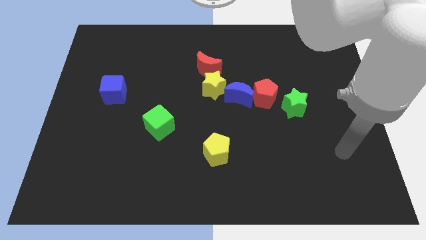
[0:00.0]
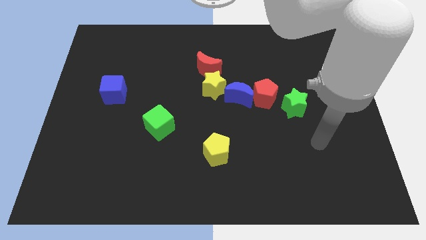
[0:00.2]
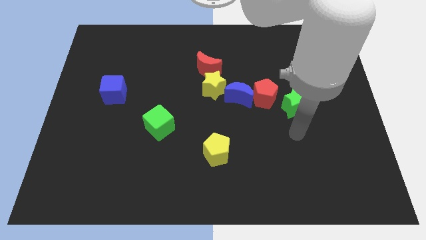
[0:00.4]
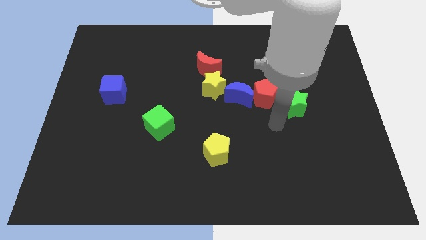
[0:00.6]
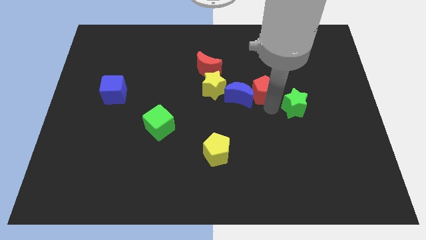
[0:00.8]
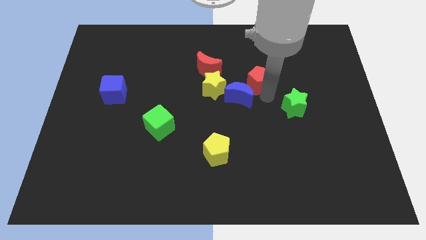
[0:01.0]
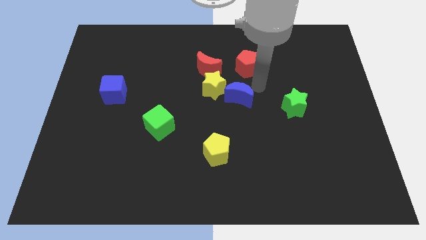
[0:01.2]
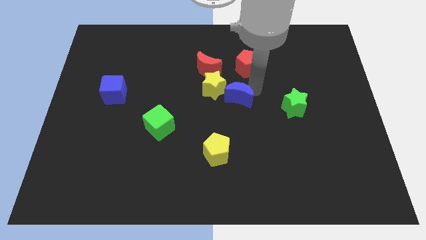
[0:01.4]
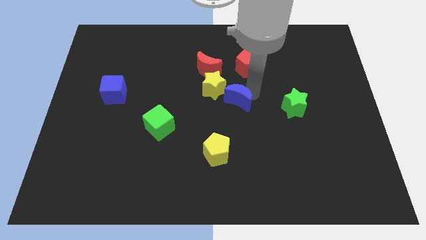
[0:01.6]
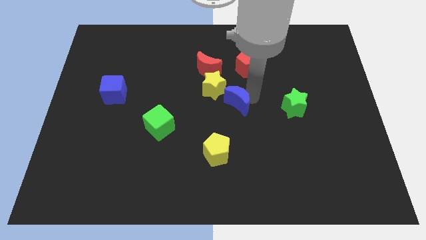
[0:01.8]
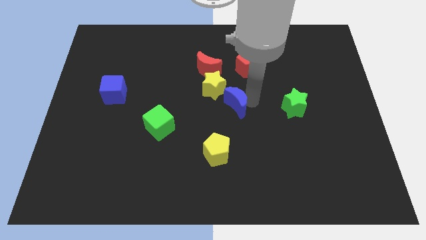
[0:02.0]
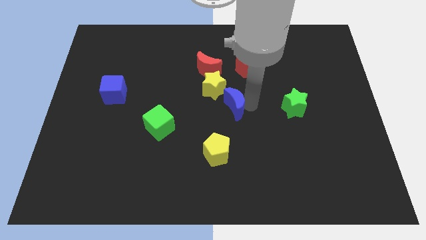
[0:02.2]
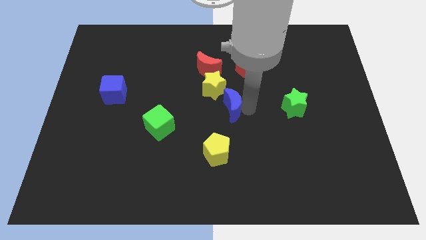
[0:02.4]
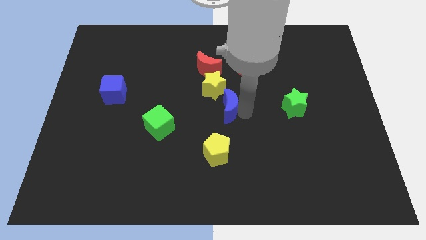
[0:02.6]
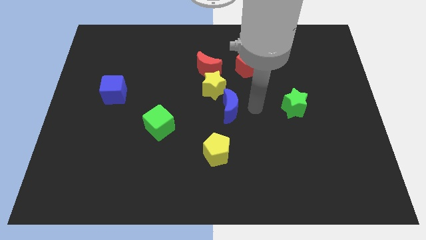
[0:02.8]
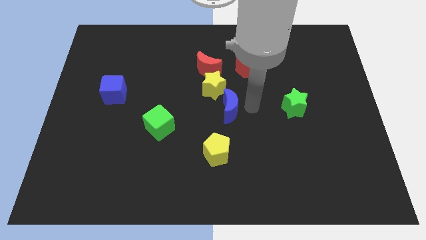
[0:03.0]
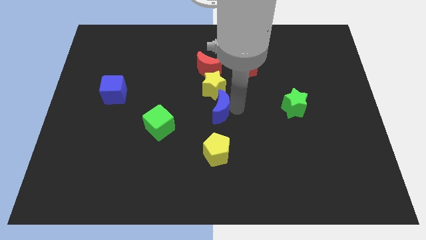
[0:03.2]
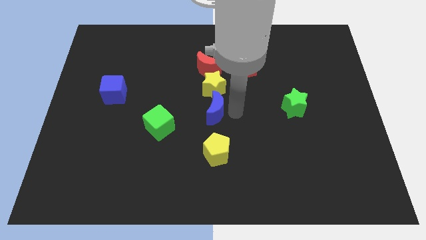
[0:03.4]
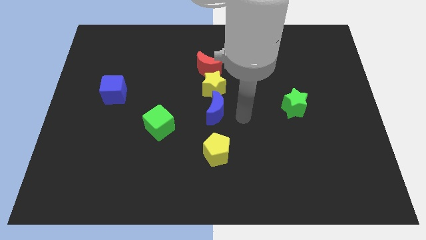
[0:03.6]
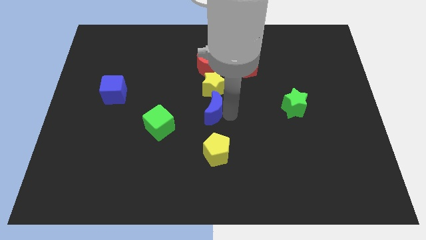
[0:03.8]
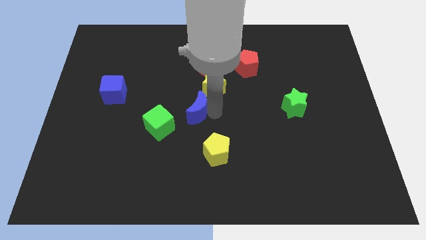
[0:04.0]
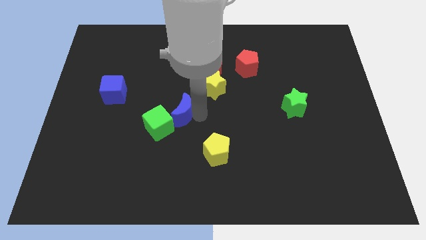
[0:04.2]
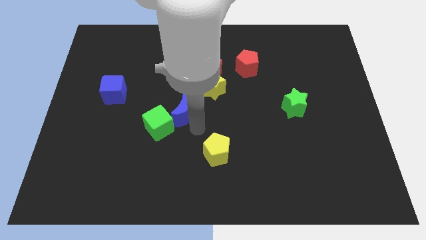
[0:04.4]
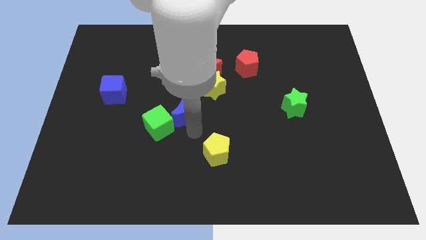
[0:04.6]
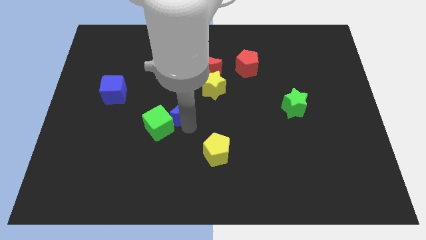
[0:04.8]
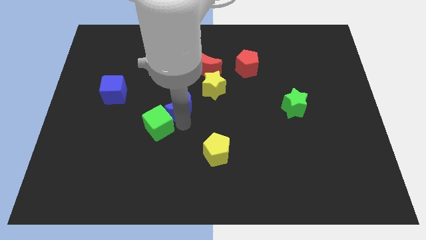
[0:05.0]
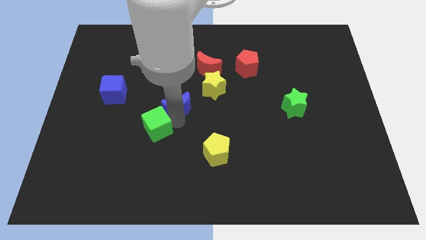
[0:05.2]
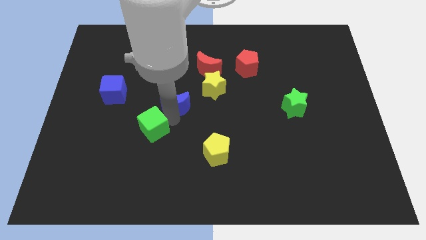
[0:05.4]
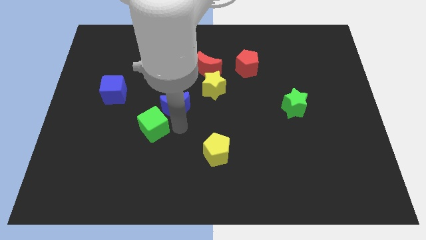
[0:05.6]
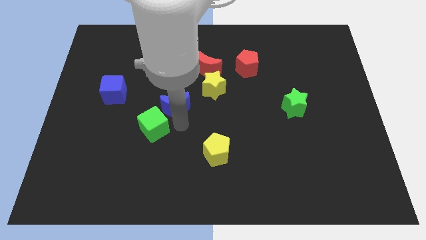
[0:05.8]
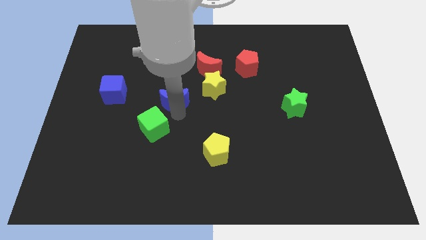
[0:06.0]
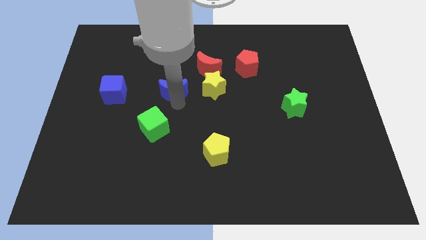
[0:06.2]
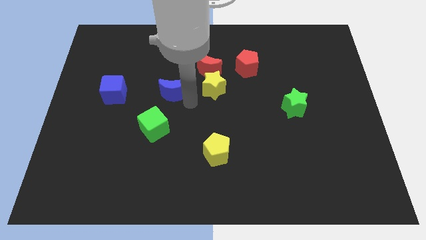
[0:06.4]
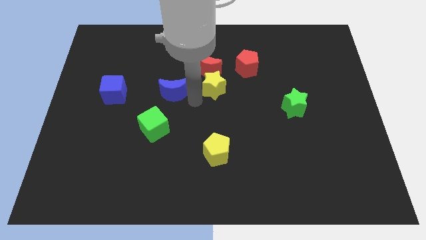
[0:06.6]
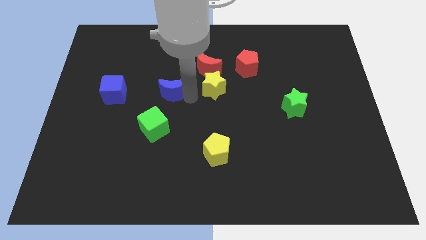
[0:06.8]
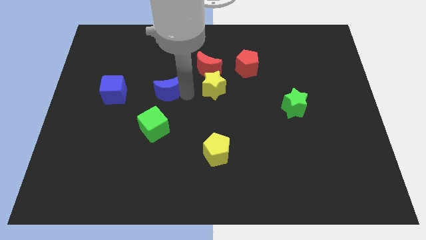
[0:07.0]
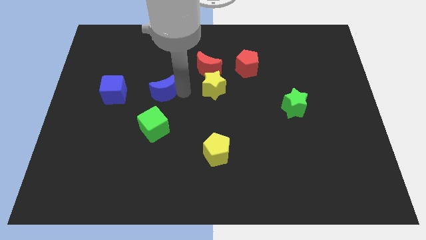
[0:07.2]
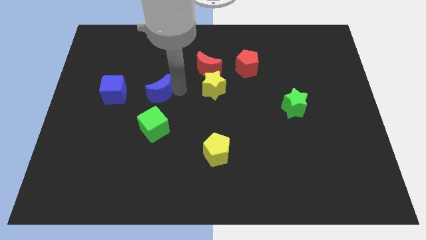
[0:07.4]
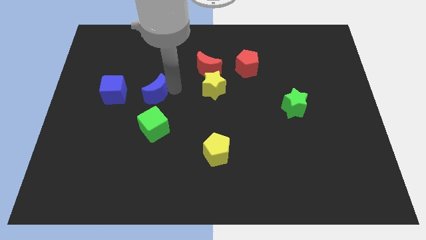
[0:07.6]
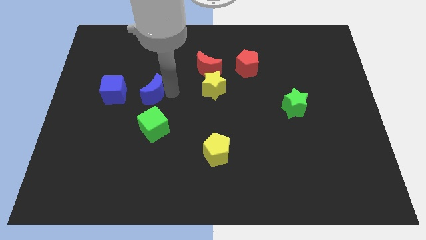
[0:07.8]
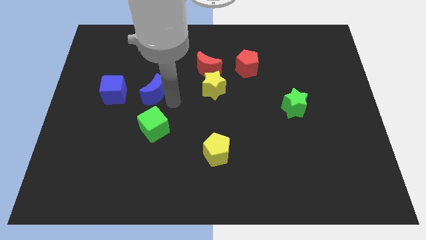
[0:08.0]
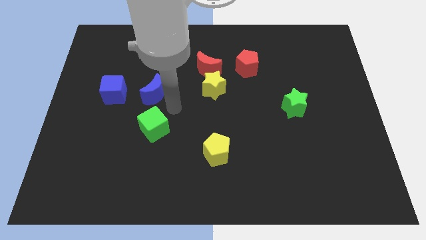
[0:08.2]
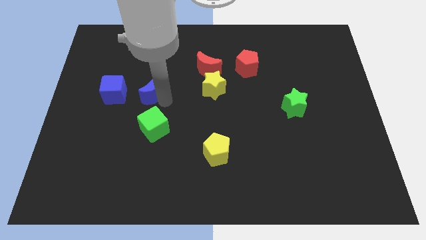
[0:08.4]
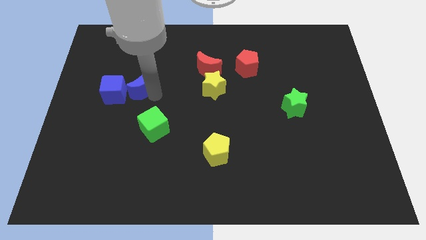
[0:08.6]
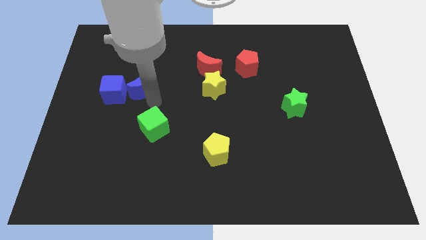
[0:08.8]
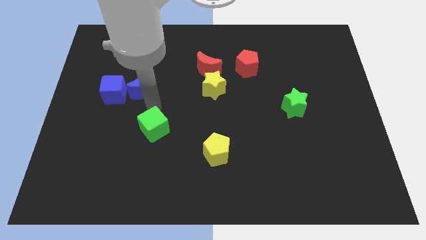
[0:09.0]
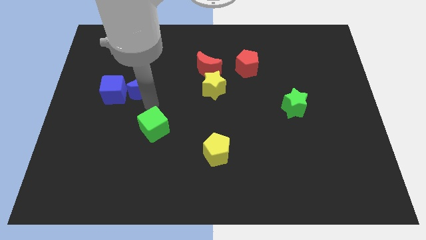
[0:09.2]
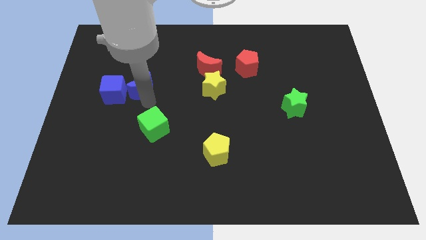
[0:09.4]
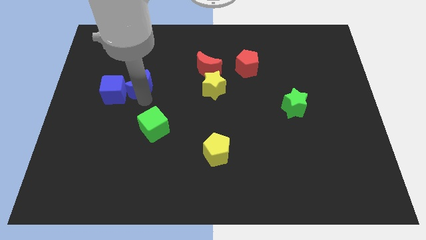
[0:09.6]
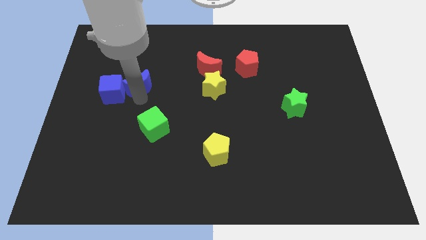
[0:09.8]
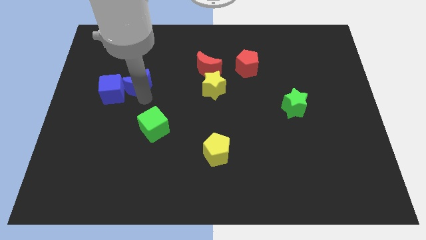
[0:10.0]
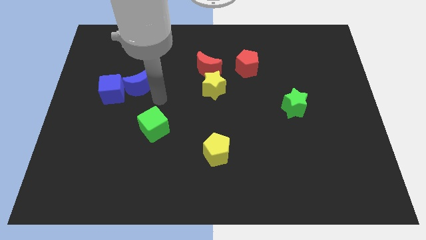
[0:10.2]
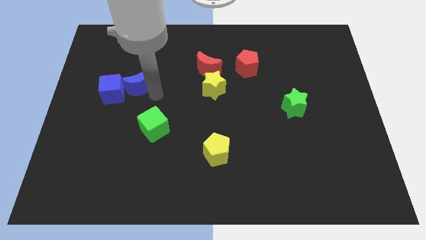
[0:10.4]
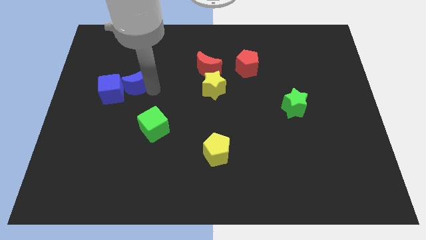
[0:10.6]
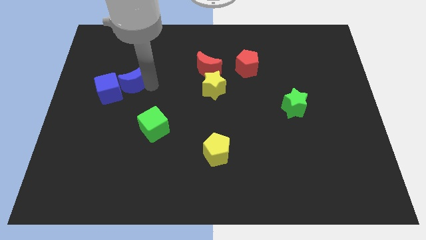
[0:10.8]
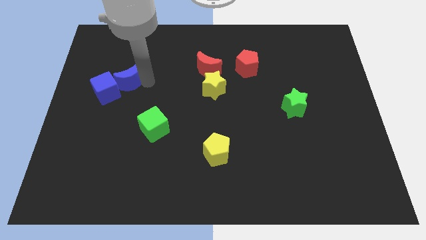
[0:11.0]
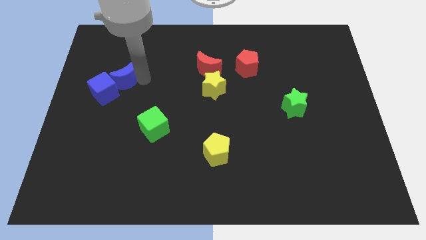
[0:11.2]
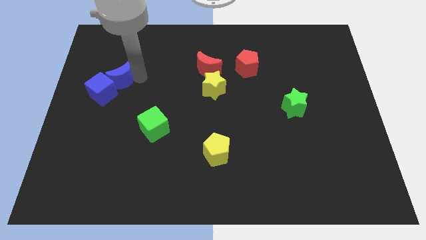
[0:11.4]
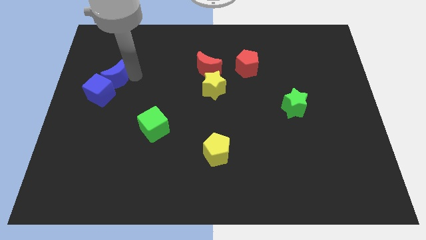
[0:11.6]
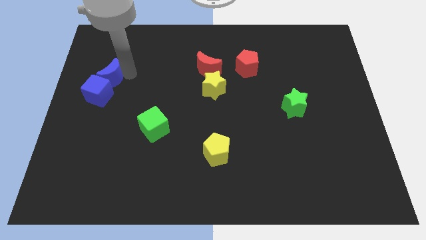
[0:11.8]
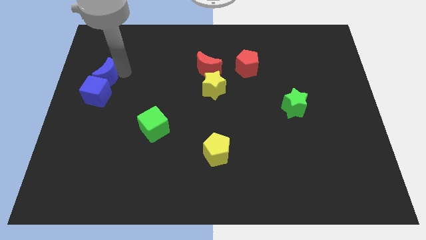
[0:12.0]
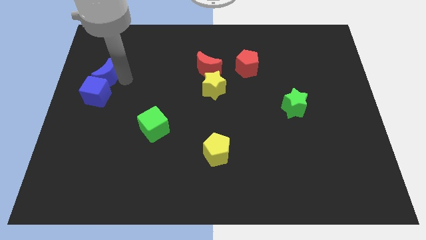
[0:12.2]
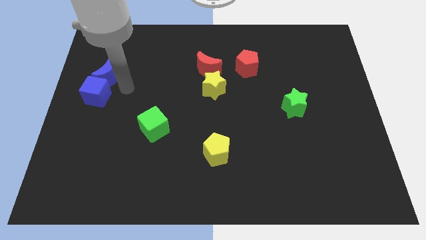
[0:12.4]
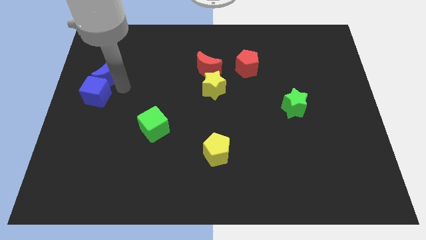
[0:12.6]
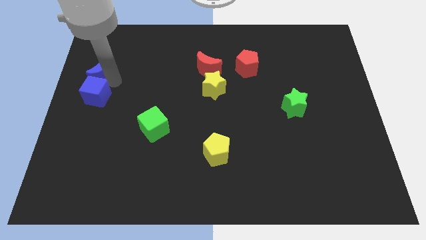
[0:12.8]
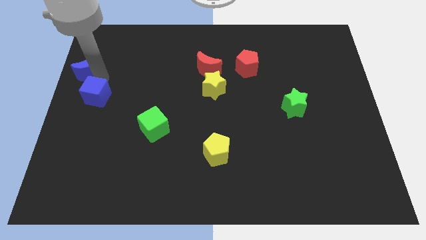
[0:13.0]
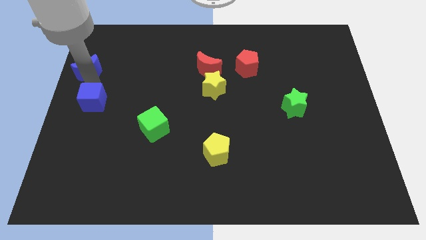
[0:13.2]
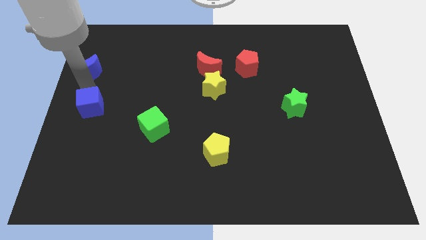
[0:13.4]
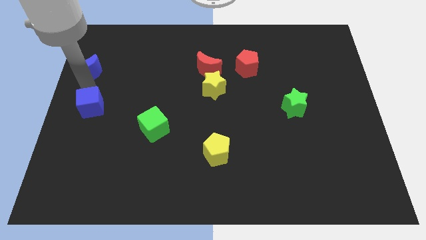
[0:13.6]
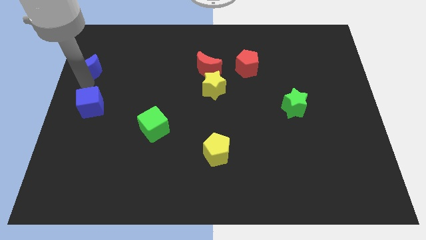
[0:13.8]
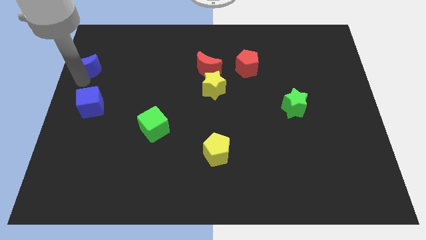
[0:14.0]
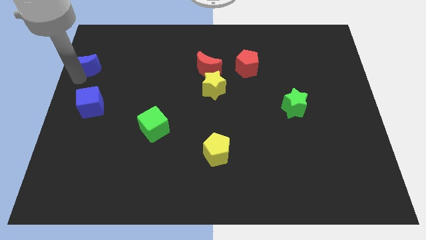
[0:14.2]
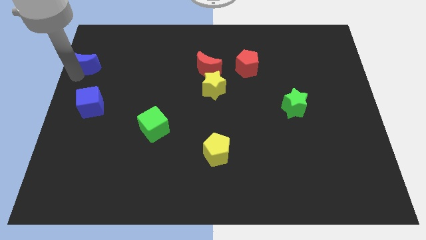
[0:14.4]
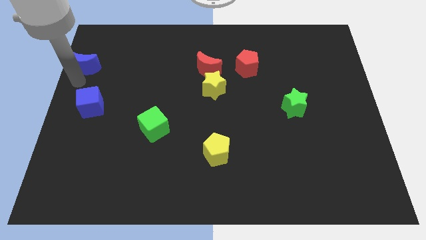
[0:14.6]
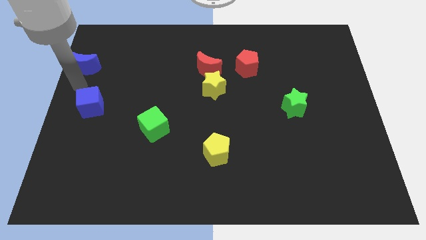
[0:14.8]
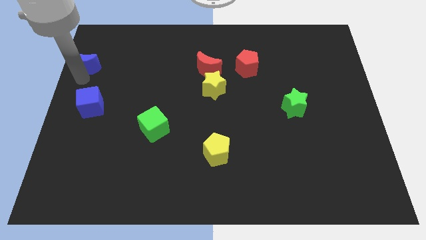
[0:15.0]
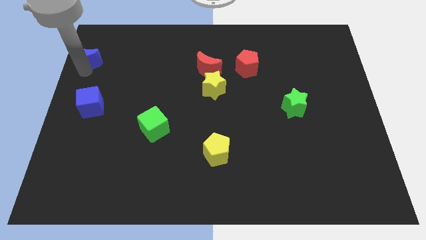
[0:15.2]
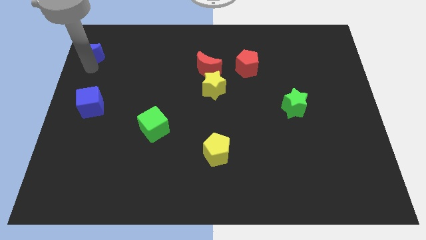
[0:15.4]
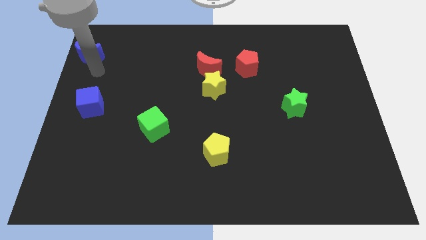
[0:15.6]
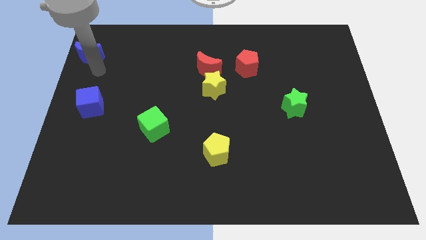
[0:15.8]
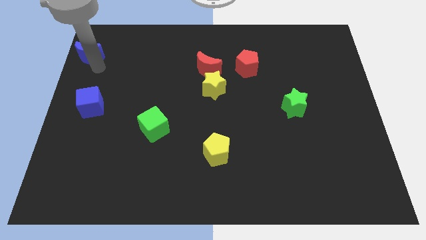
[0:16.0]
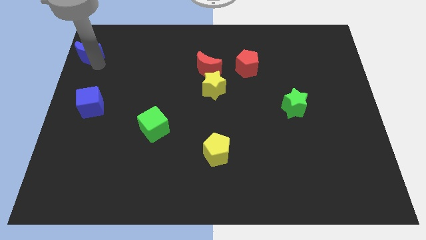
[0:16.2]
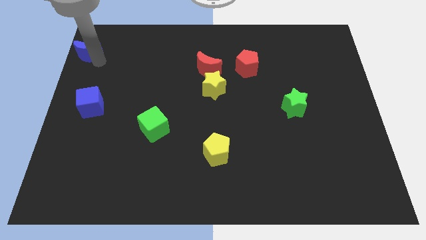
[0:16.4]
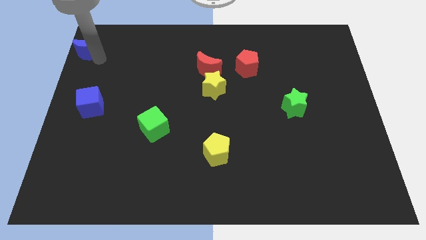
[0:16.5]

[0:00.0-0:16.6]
push the blue moon to the top left of the board
